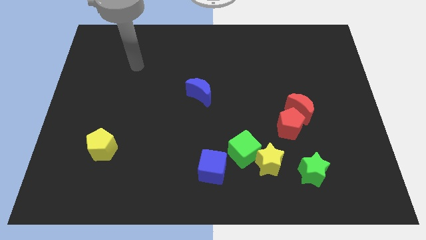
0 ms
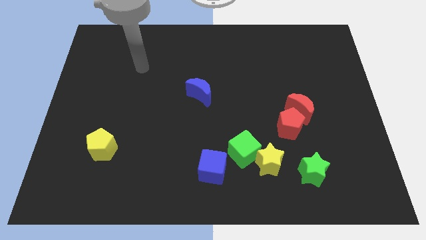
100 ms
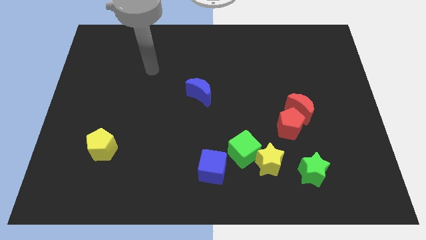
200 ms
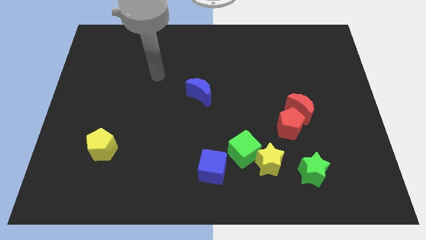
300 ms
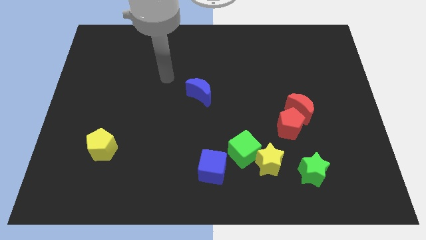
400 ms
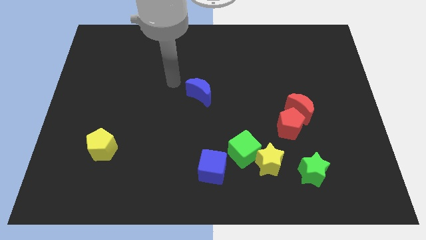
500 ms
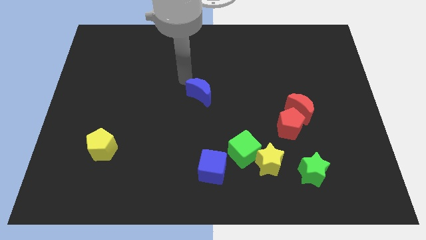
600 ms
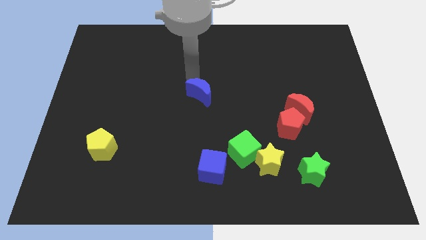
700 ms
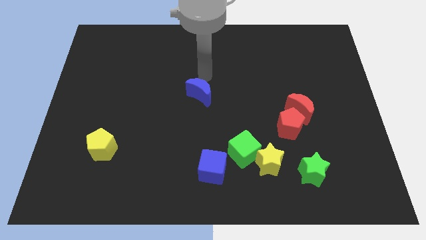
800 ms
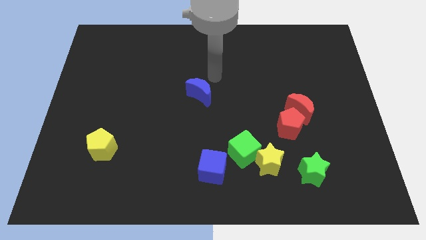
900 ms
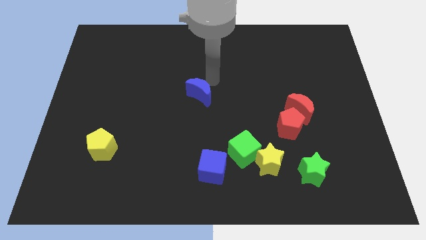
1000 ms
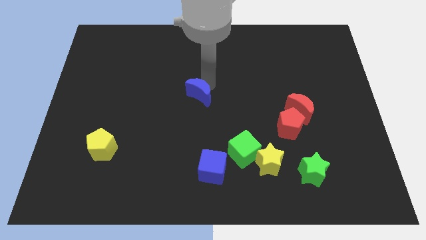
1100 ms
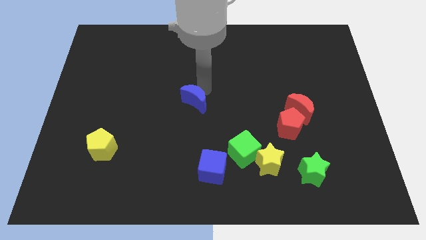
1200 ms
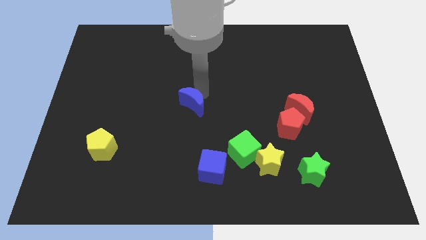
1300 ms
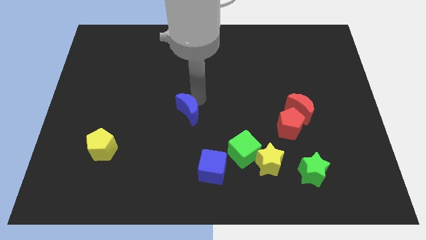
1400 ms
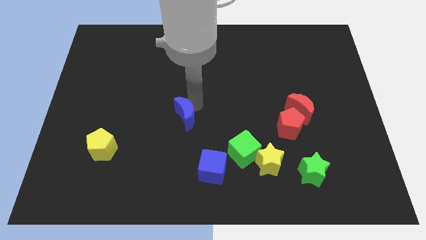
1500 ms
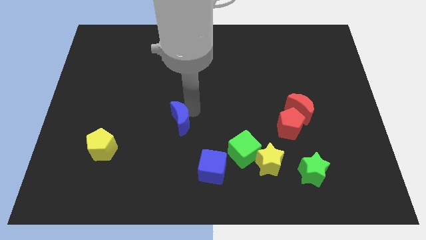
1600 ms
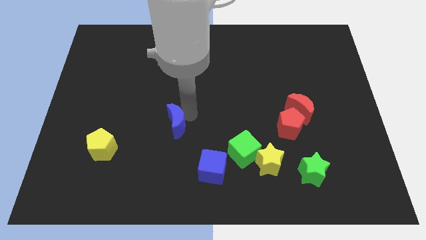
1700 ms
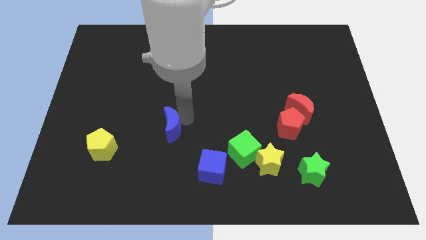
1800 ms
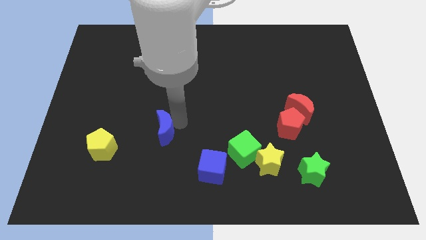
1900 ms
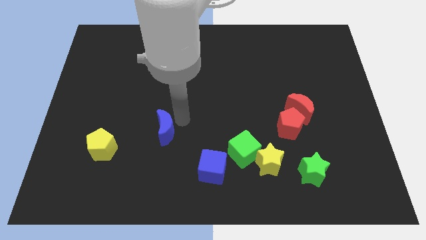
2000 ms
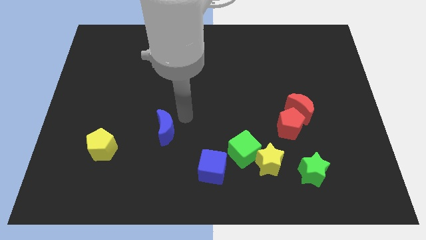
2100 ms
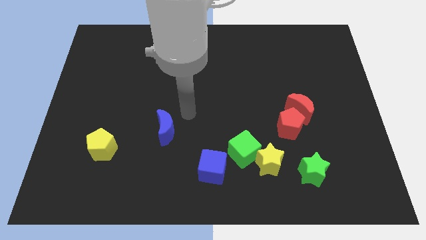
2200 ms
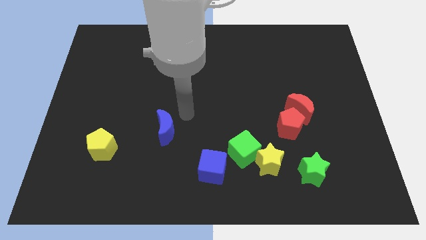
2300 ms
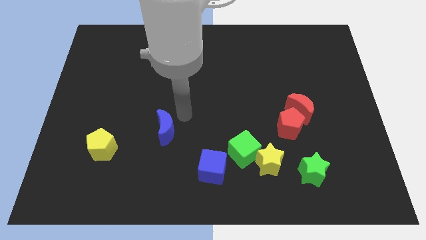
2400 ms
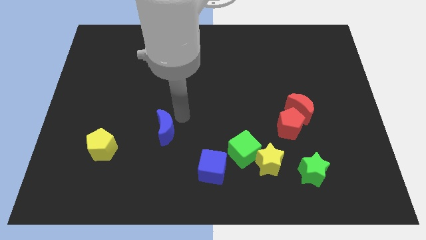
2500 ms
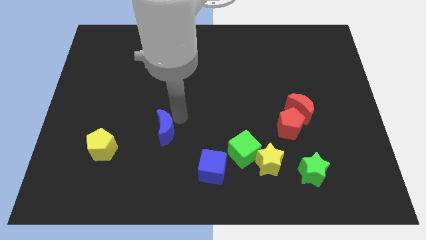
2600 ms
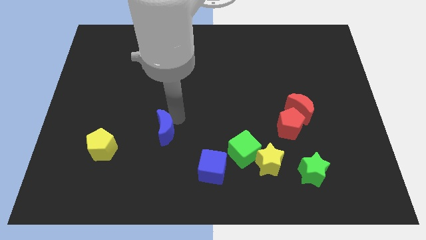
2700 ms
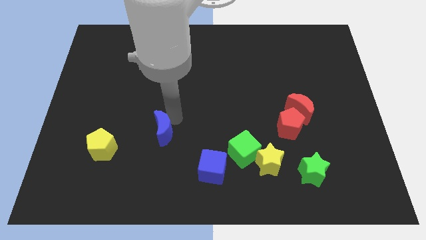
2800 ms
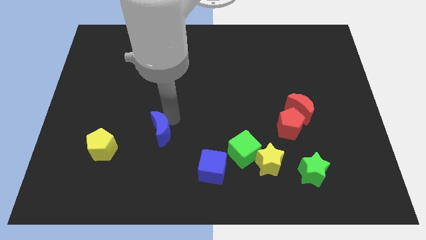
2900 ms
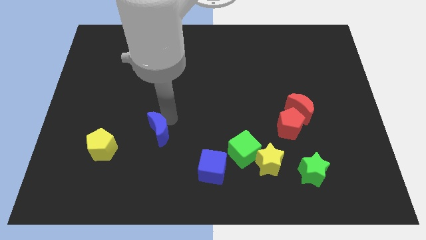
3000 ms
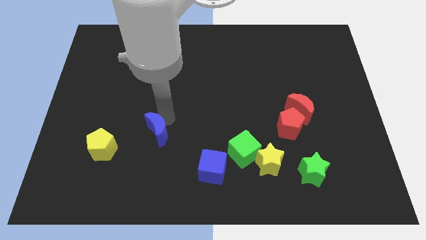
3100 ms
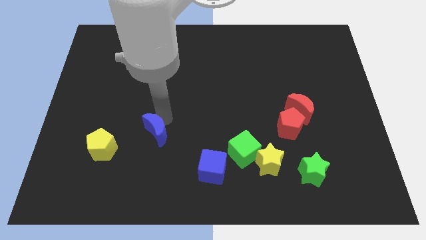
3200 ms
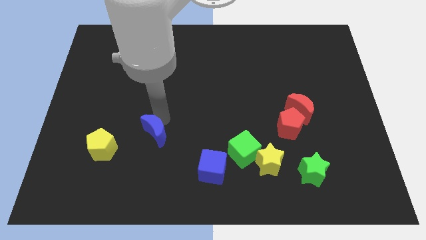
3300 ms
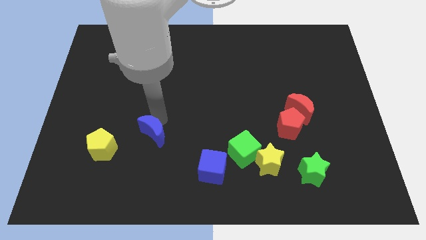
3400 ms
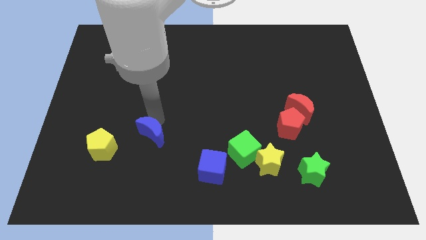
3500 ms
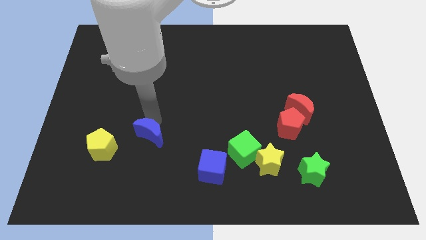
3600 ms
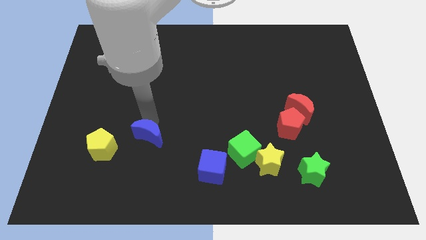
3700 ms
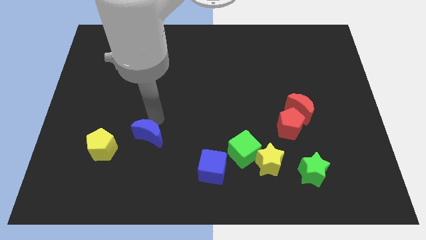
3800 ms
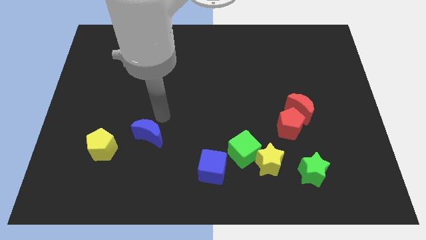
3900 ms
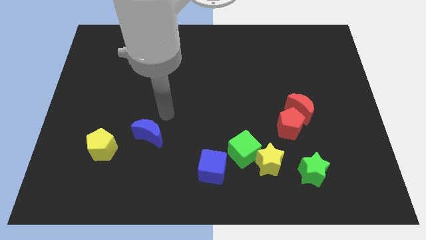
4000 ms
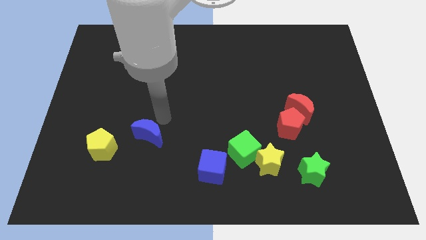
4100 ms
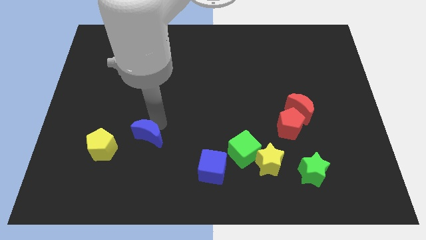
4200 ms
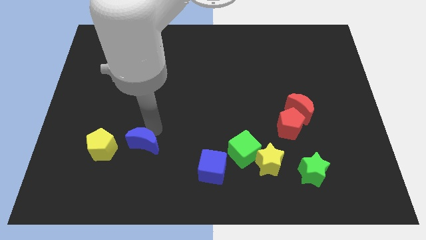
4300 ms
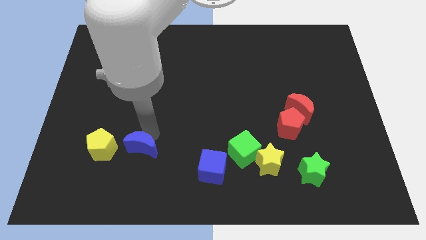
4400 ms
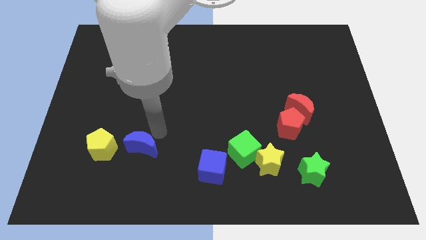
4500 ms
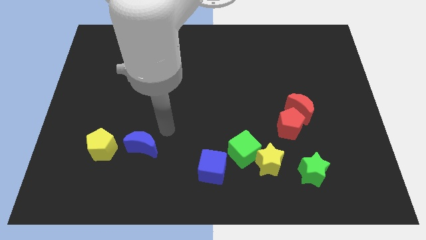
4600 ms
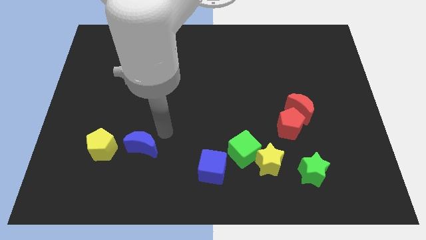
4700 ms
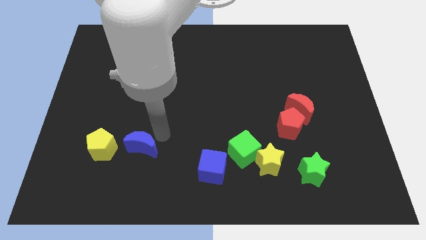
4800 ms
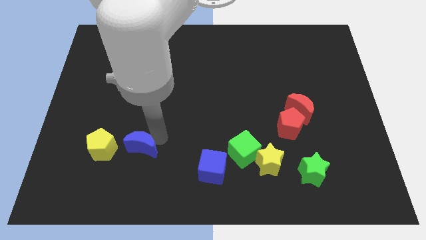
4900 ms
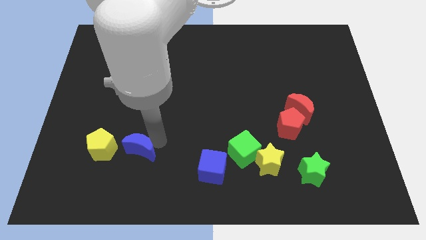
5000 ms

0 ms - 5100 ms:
slide the blue moon down and then to the left

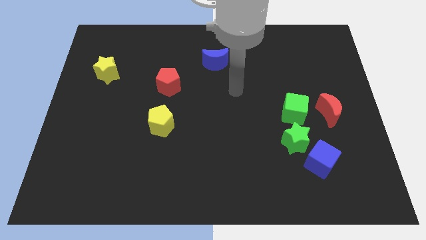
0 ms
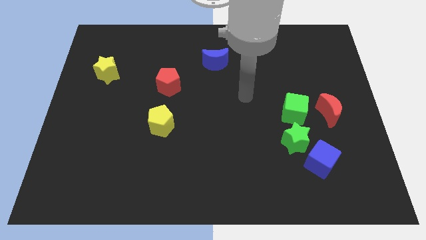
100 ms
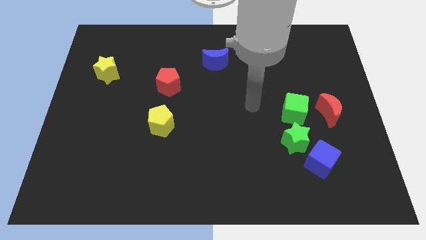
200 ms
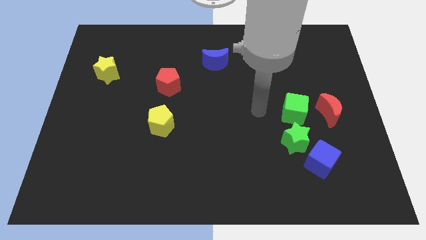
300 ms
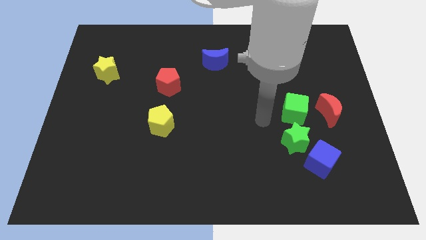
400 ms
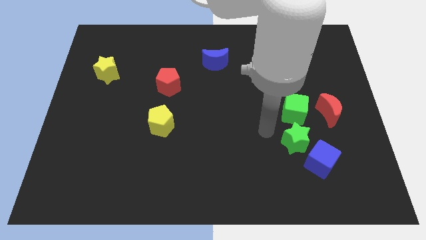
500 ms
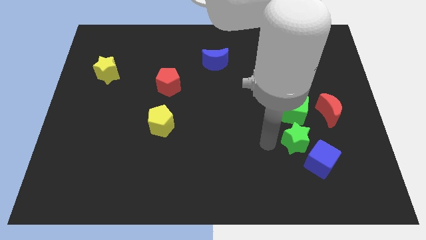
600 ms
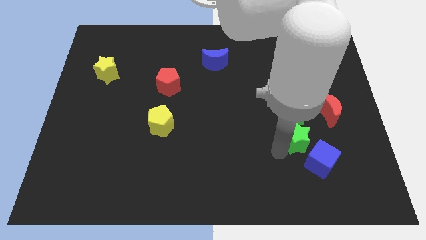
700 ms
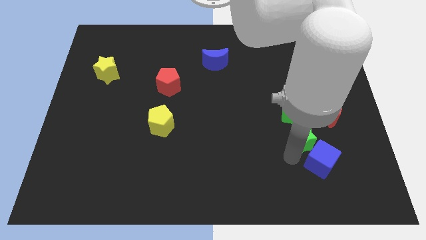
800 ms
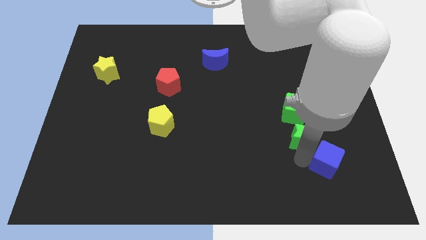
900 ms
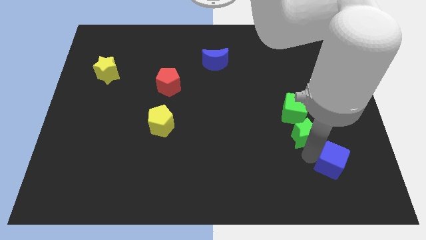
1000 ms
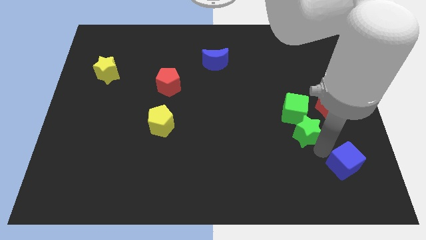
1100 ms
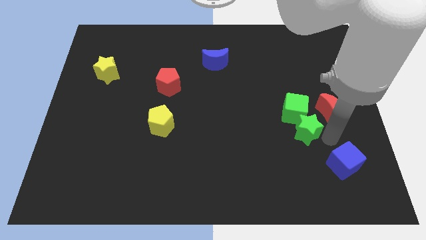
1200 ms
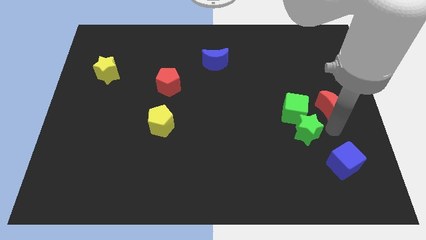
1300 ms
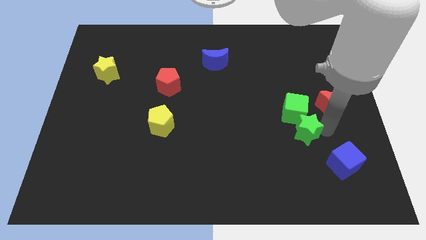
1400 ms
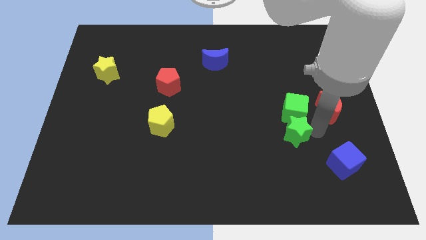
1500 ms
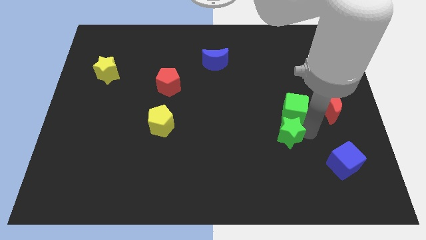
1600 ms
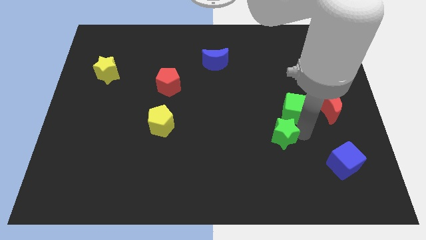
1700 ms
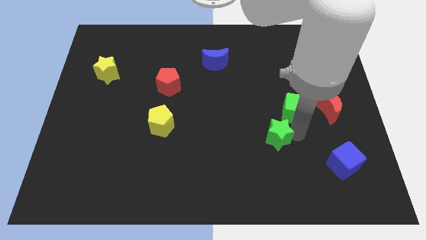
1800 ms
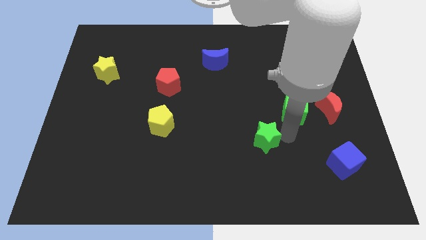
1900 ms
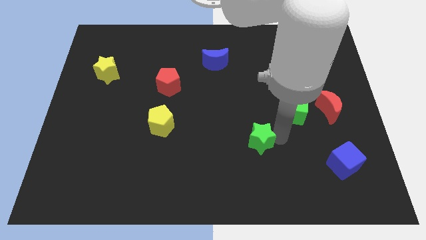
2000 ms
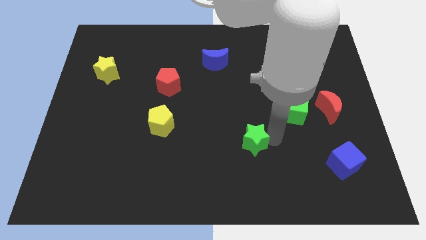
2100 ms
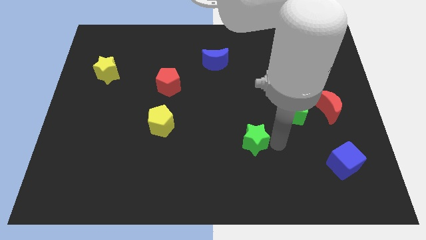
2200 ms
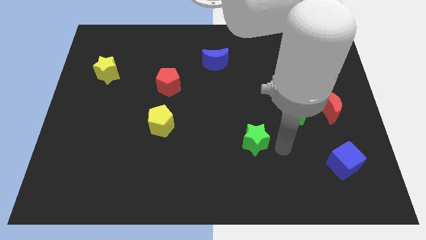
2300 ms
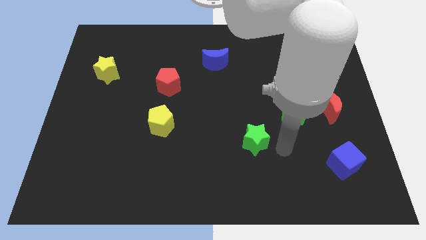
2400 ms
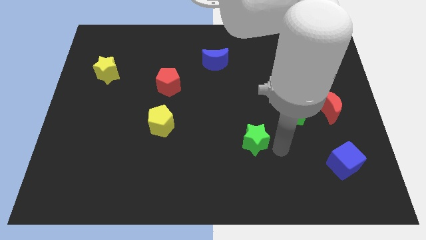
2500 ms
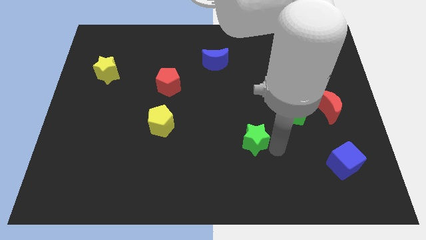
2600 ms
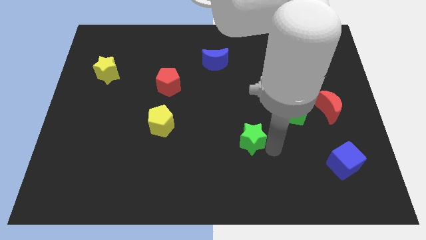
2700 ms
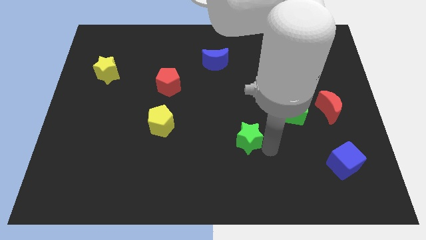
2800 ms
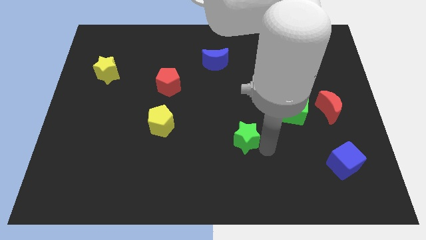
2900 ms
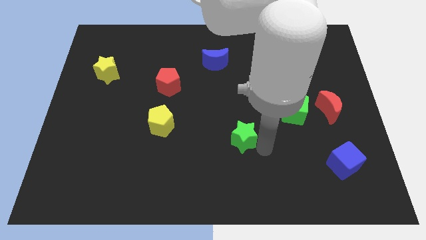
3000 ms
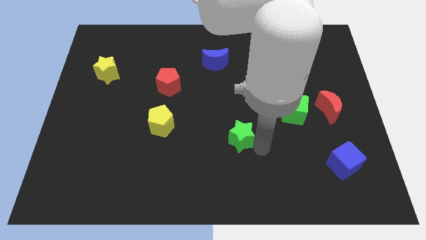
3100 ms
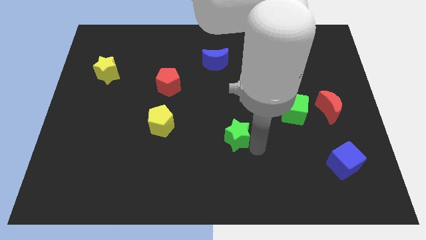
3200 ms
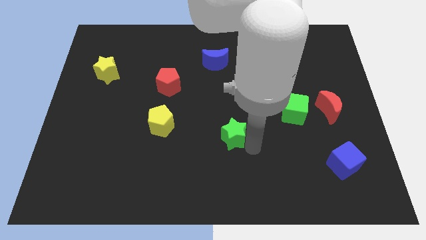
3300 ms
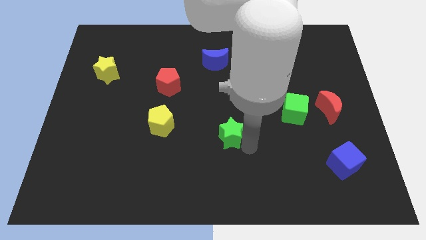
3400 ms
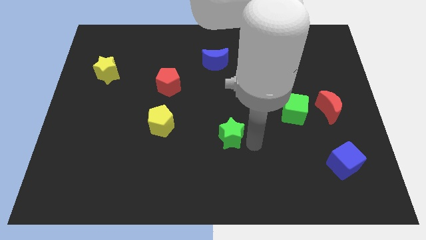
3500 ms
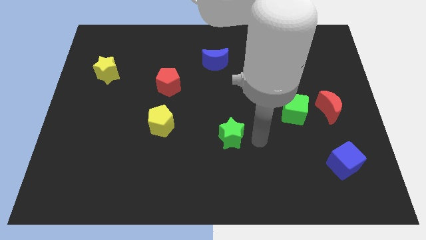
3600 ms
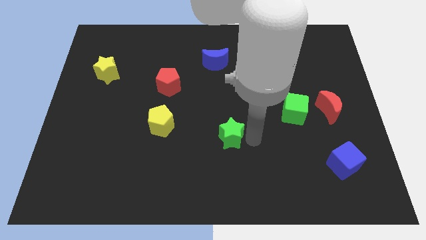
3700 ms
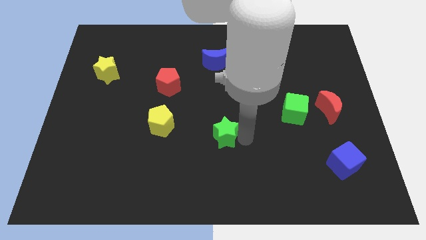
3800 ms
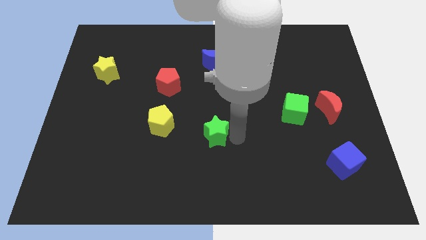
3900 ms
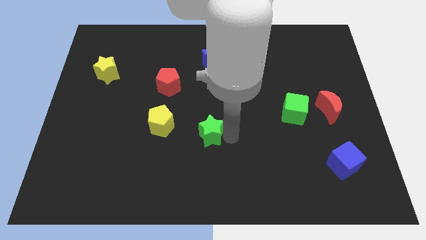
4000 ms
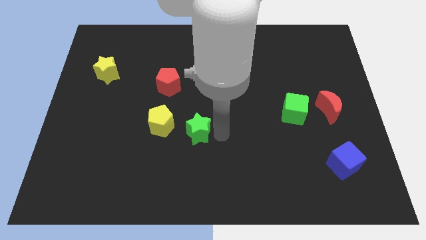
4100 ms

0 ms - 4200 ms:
push the green star left
